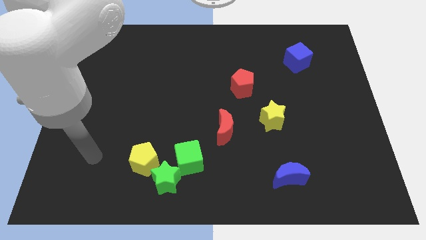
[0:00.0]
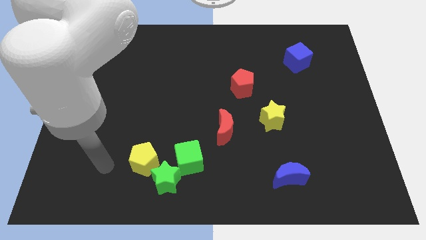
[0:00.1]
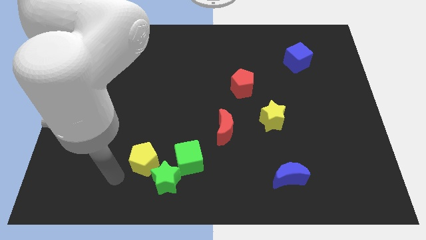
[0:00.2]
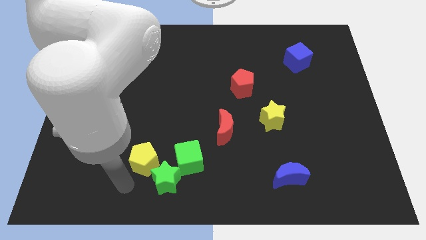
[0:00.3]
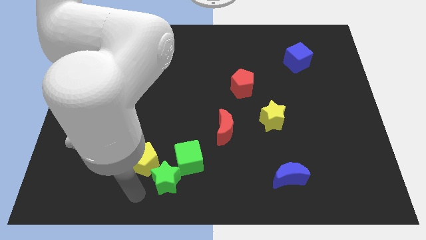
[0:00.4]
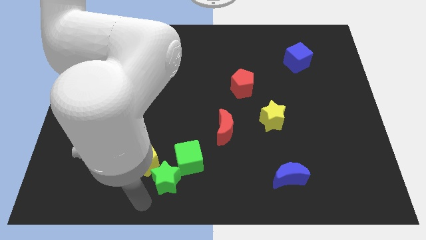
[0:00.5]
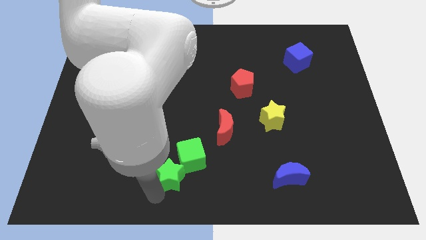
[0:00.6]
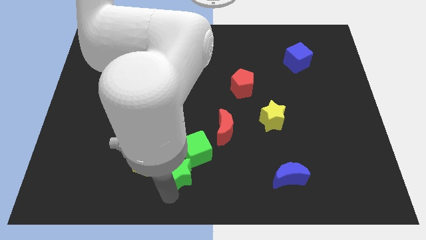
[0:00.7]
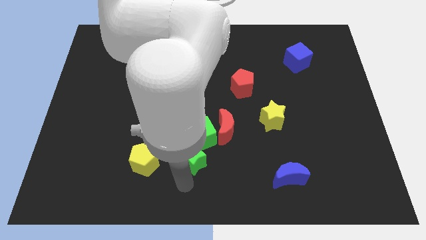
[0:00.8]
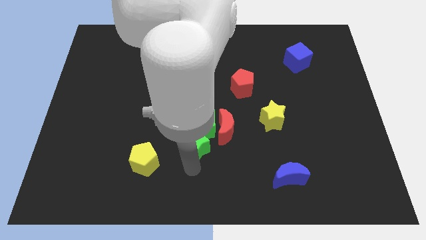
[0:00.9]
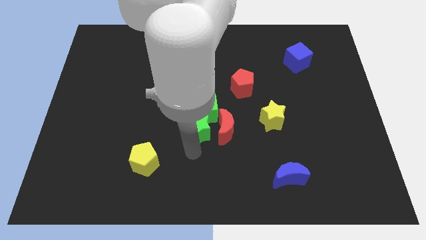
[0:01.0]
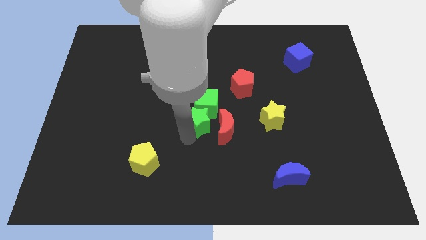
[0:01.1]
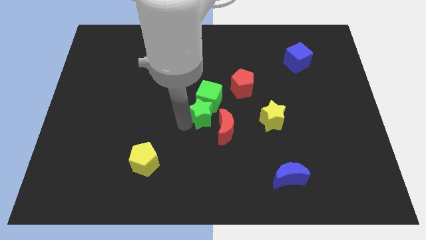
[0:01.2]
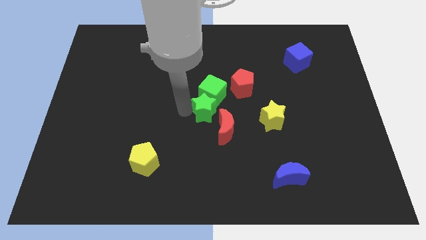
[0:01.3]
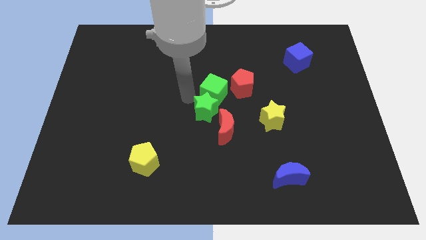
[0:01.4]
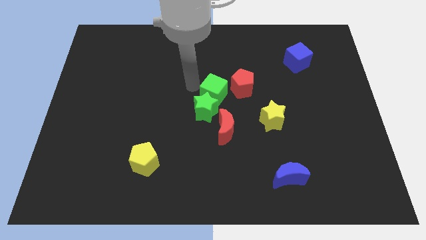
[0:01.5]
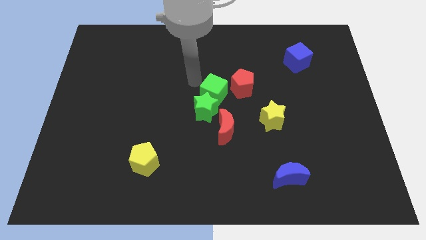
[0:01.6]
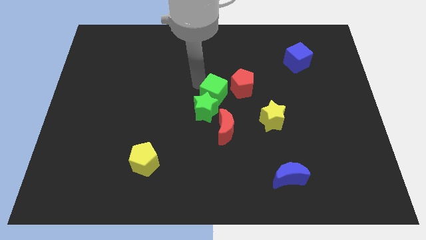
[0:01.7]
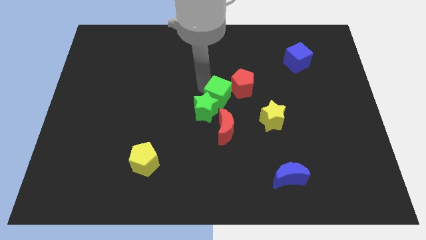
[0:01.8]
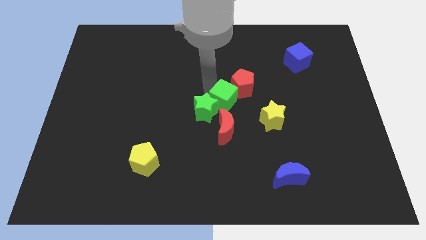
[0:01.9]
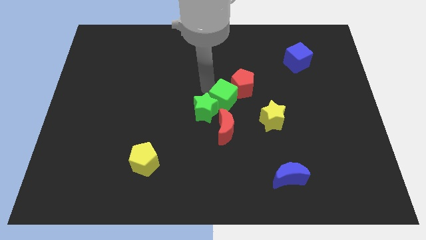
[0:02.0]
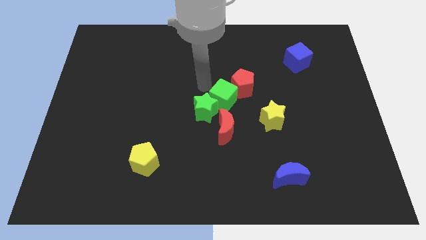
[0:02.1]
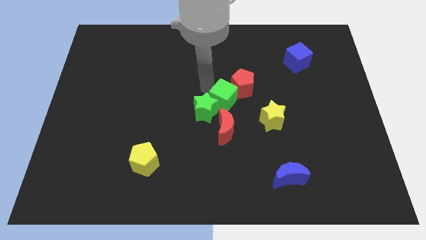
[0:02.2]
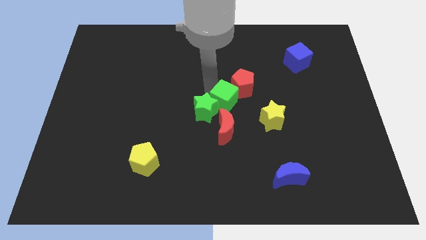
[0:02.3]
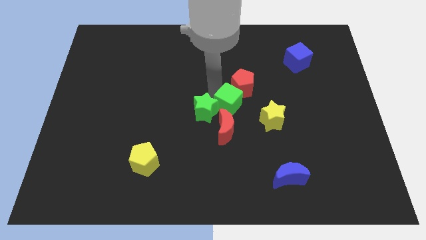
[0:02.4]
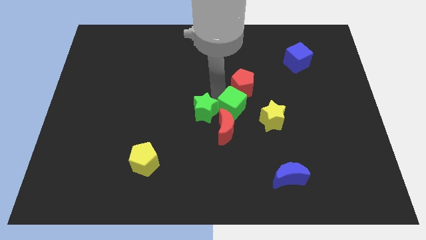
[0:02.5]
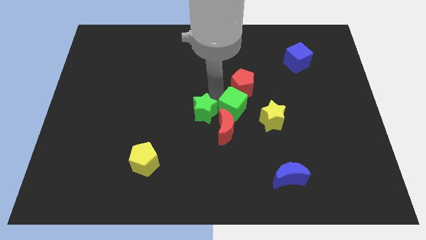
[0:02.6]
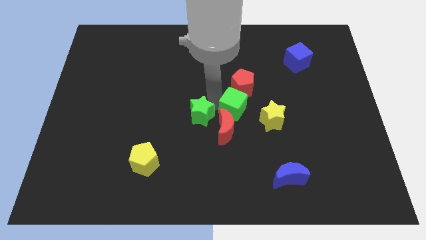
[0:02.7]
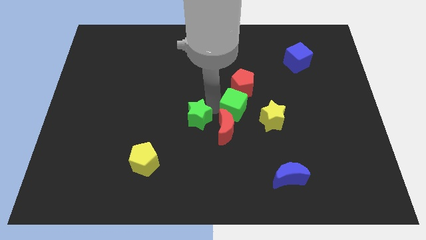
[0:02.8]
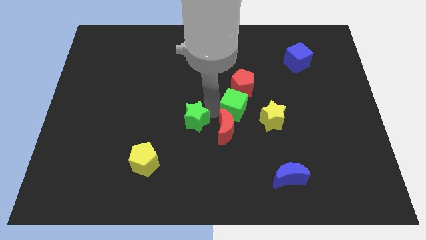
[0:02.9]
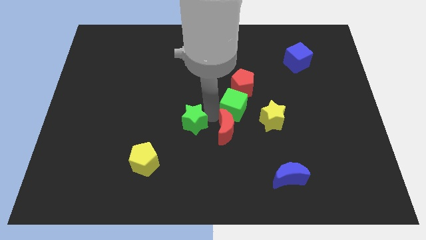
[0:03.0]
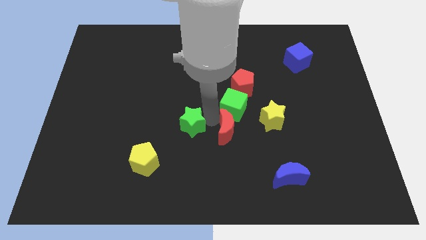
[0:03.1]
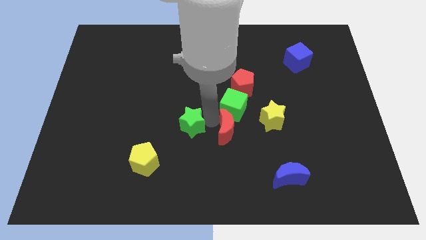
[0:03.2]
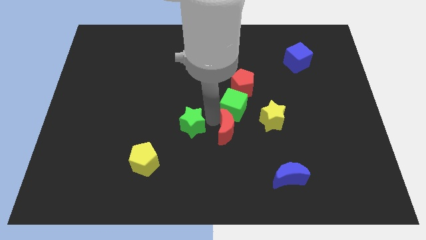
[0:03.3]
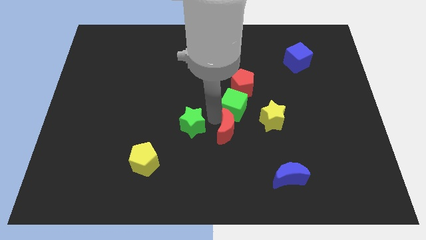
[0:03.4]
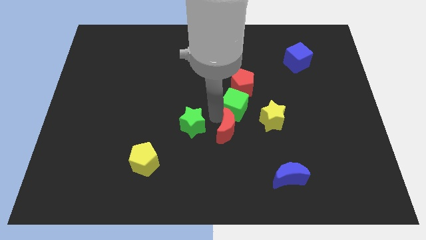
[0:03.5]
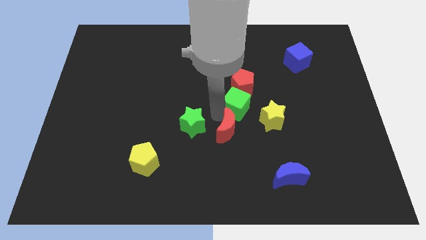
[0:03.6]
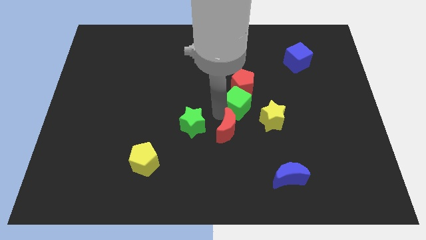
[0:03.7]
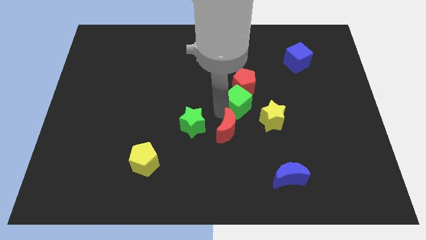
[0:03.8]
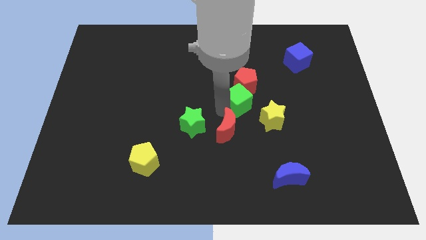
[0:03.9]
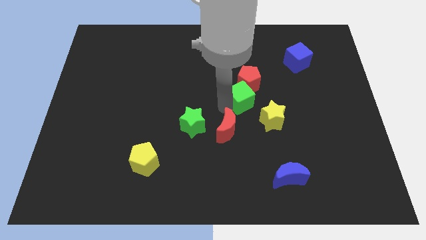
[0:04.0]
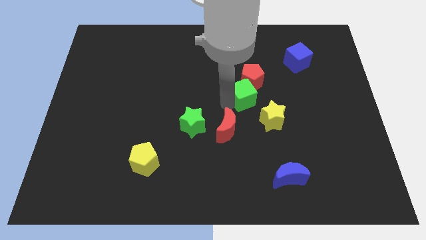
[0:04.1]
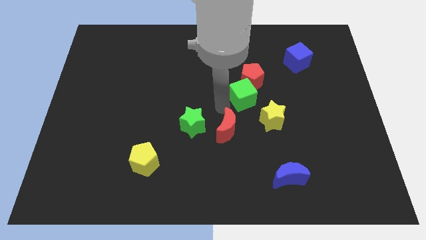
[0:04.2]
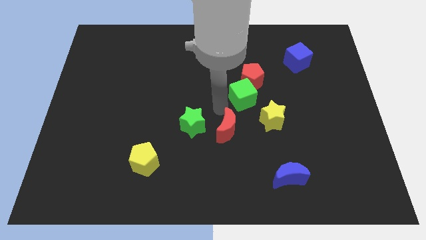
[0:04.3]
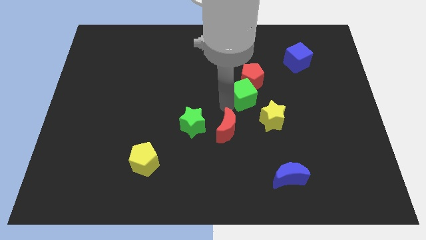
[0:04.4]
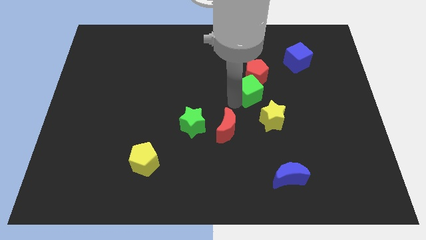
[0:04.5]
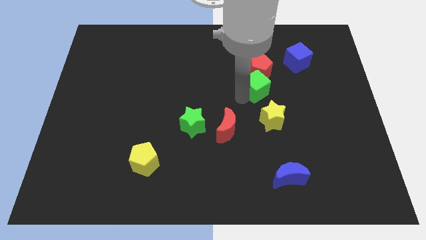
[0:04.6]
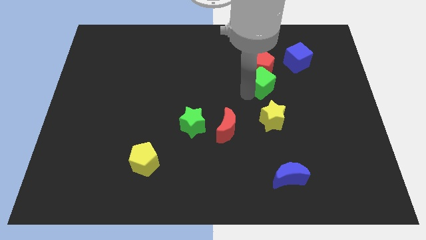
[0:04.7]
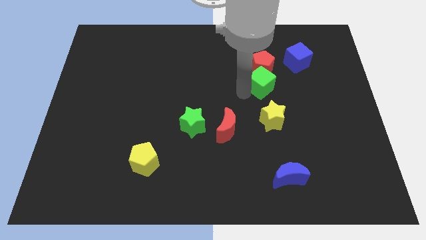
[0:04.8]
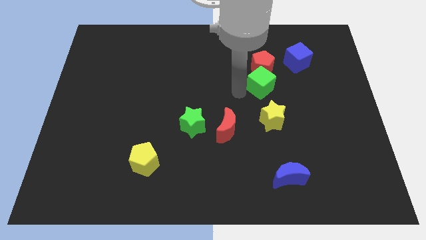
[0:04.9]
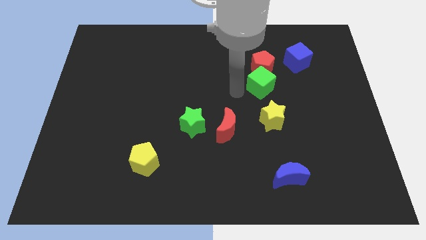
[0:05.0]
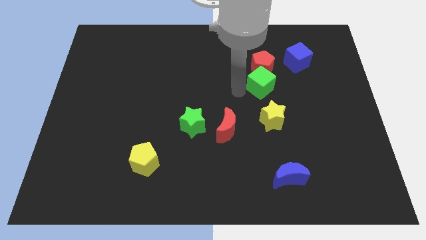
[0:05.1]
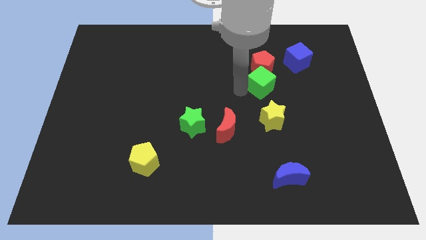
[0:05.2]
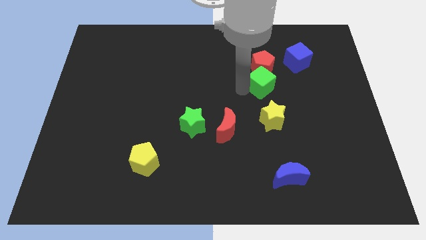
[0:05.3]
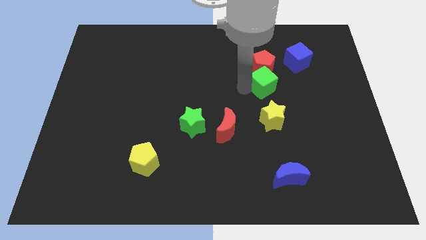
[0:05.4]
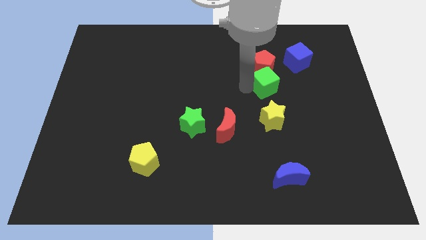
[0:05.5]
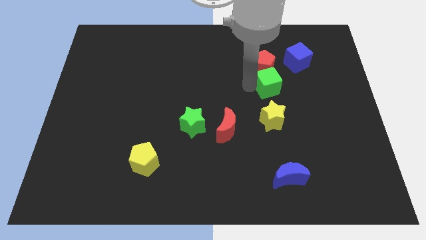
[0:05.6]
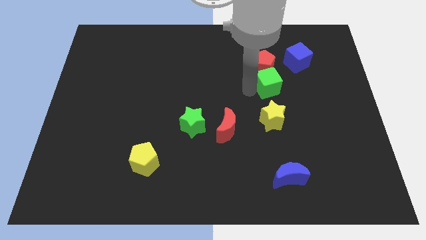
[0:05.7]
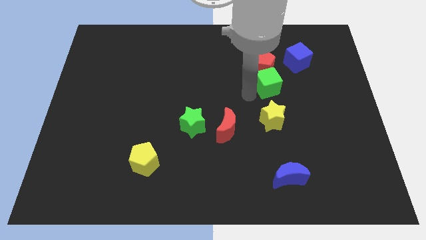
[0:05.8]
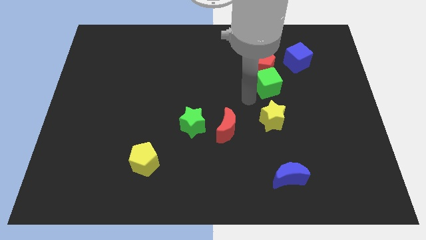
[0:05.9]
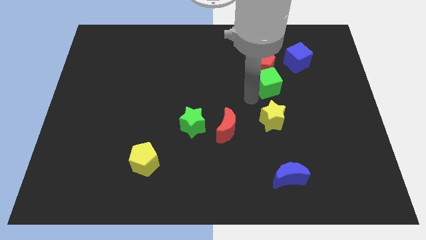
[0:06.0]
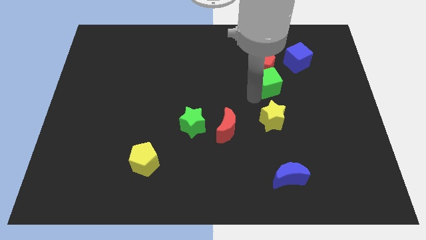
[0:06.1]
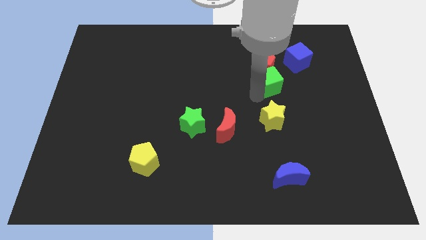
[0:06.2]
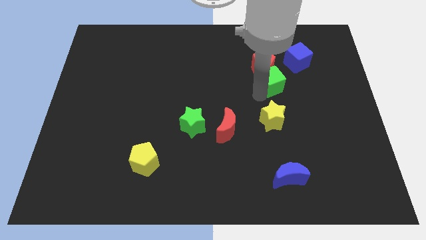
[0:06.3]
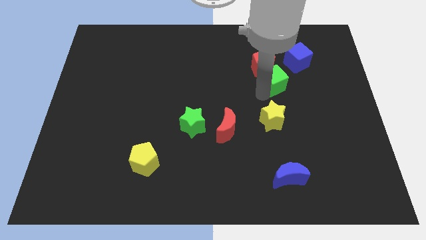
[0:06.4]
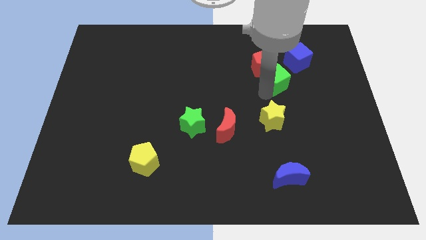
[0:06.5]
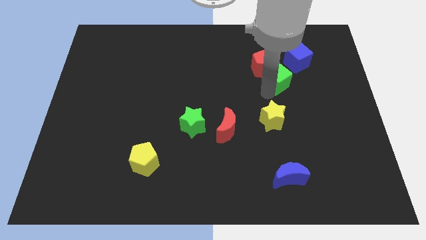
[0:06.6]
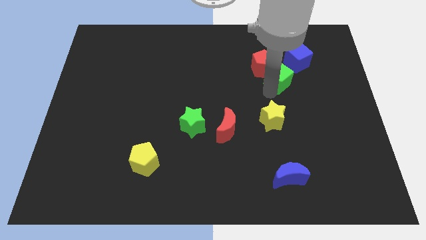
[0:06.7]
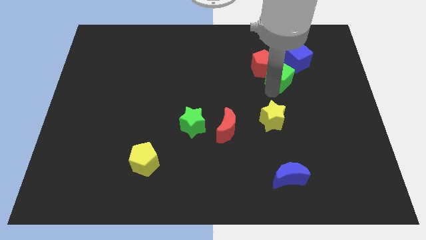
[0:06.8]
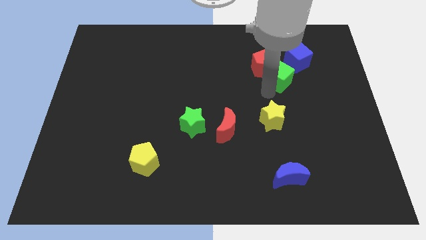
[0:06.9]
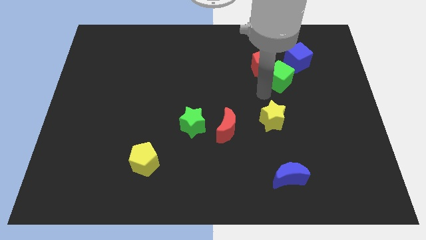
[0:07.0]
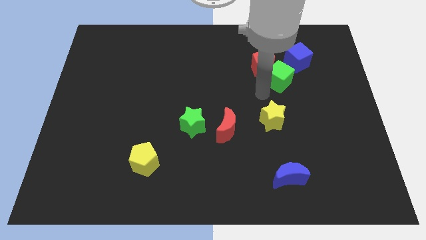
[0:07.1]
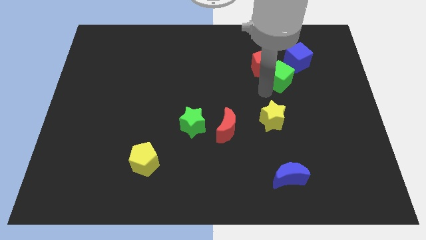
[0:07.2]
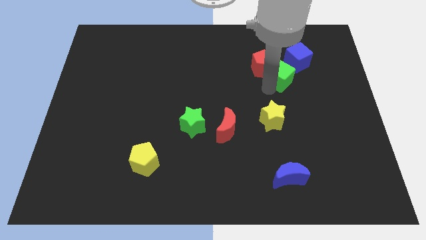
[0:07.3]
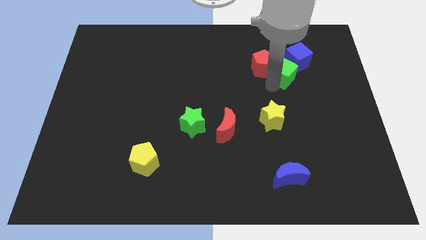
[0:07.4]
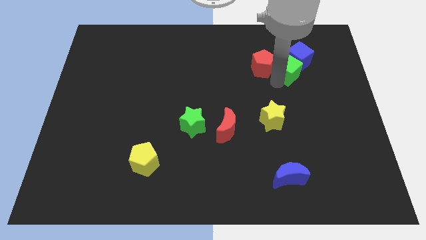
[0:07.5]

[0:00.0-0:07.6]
slide the green cube to the blue cube
